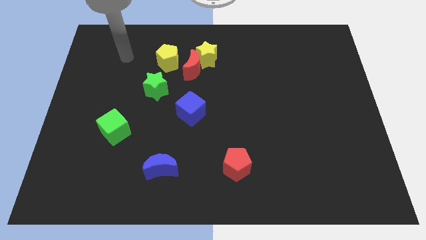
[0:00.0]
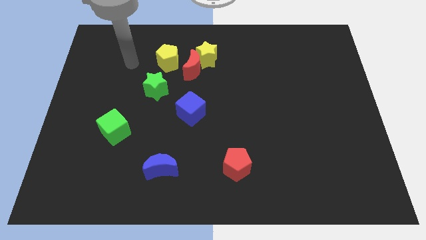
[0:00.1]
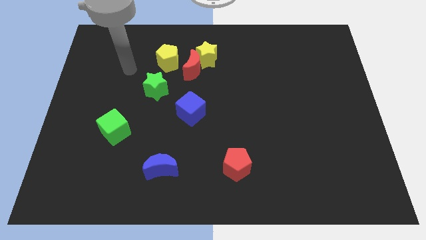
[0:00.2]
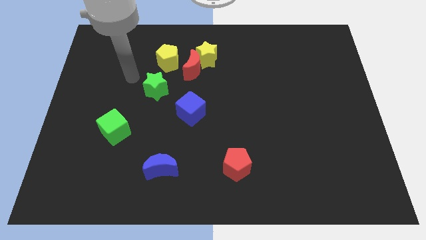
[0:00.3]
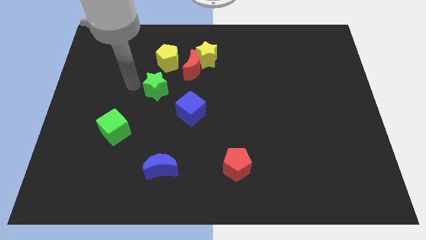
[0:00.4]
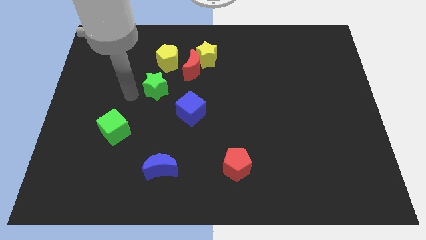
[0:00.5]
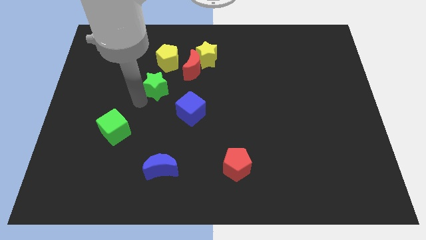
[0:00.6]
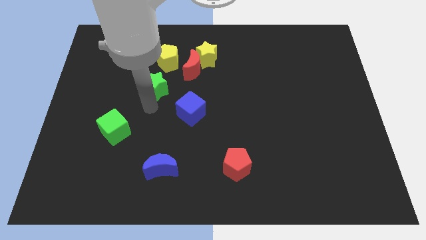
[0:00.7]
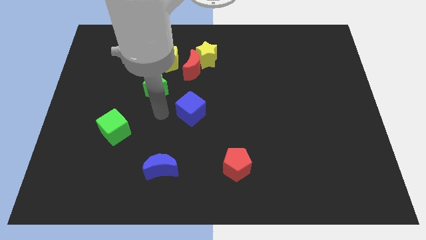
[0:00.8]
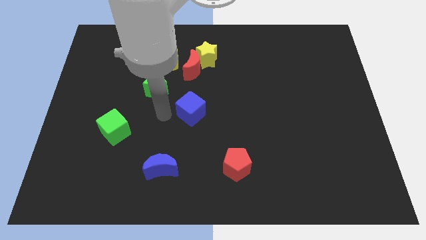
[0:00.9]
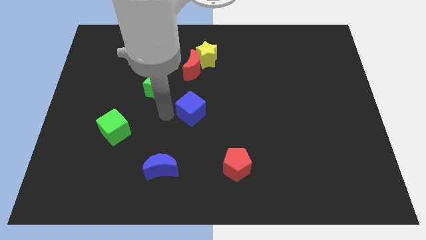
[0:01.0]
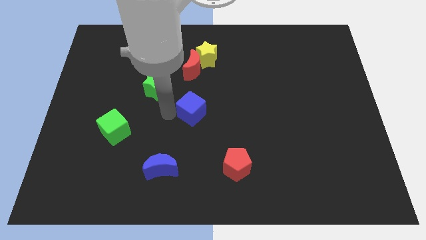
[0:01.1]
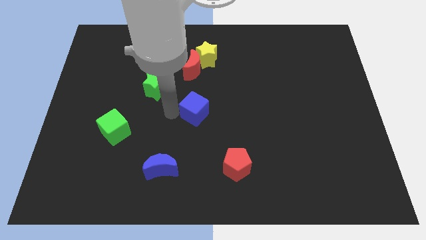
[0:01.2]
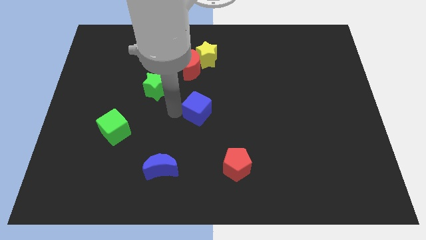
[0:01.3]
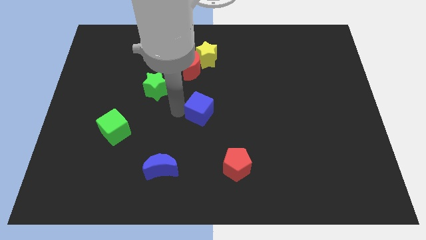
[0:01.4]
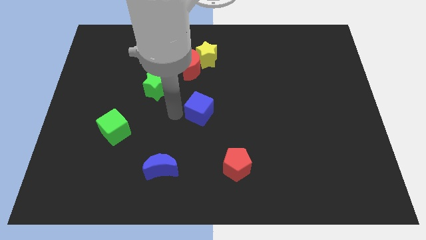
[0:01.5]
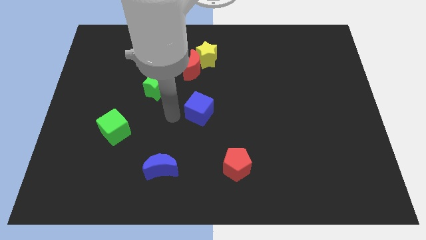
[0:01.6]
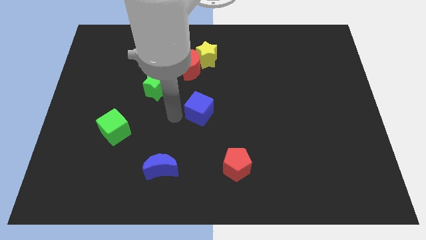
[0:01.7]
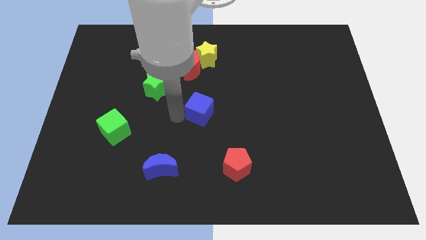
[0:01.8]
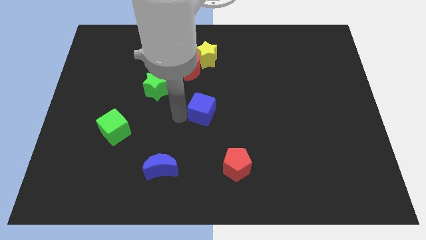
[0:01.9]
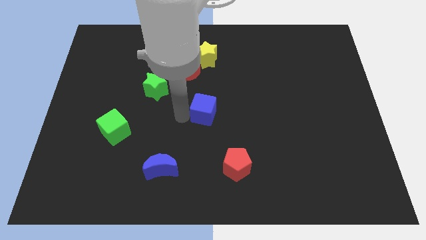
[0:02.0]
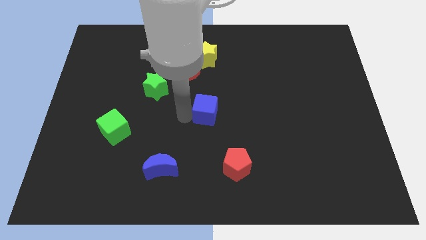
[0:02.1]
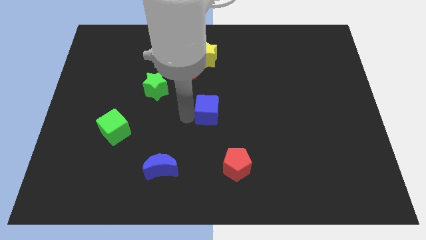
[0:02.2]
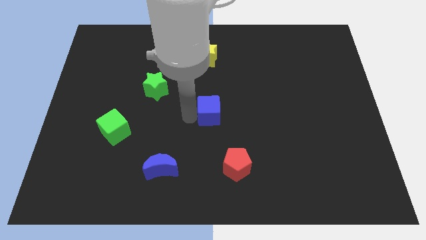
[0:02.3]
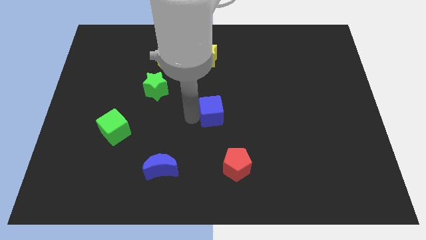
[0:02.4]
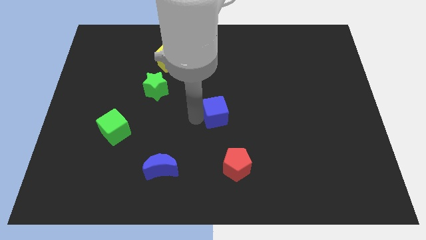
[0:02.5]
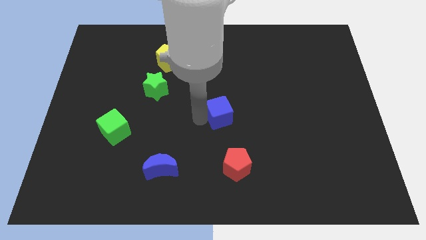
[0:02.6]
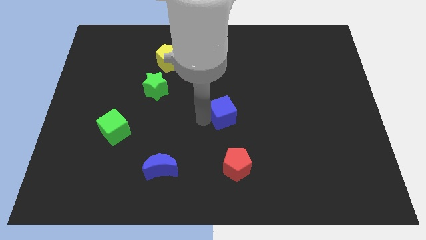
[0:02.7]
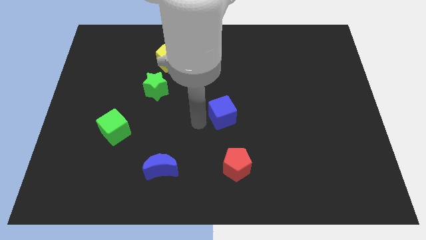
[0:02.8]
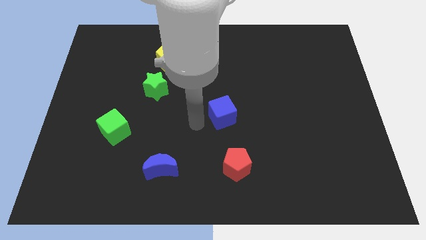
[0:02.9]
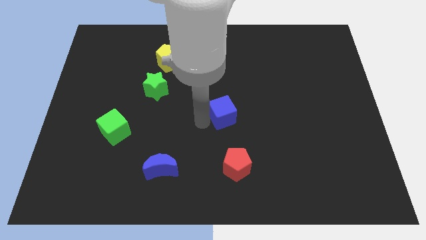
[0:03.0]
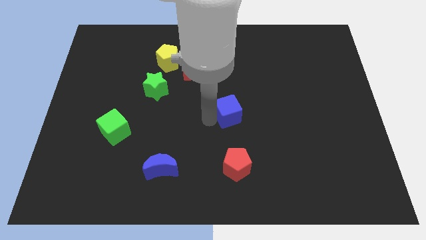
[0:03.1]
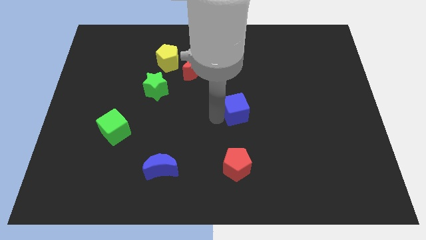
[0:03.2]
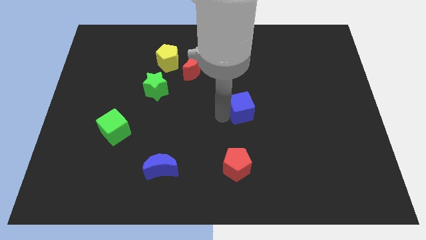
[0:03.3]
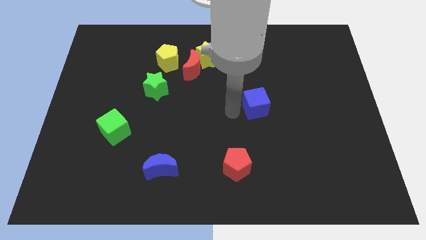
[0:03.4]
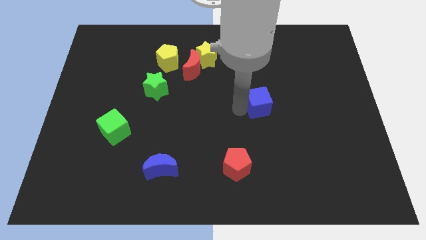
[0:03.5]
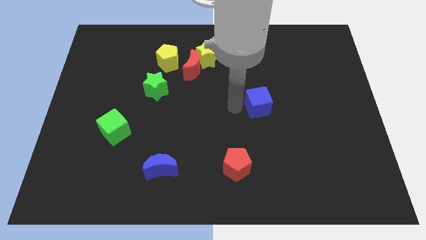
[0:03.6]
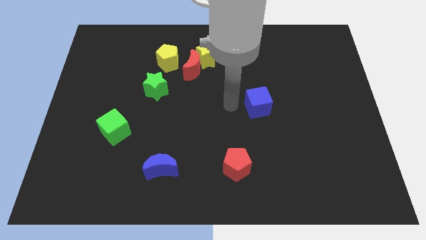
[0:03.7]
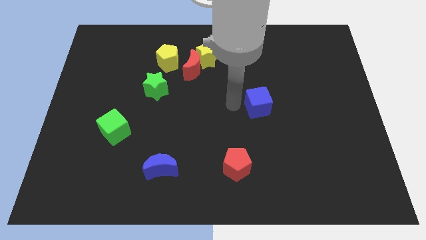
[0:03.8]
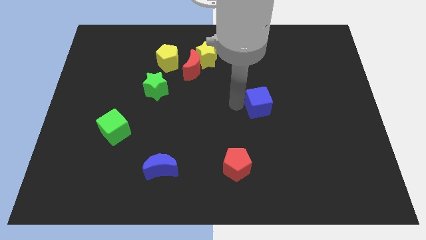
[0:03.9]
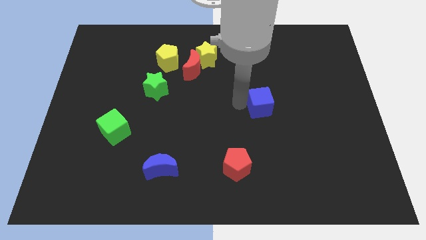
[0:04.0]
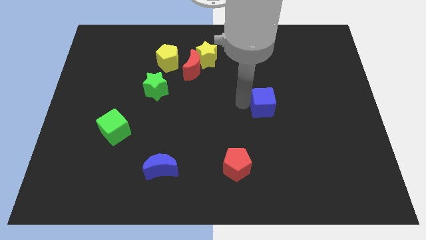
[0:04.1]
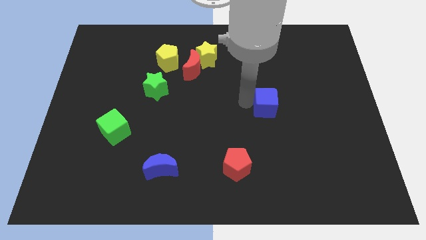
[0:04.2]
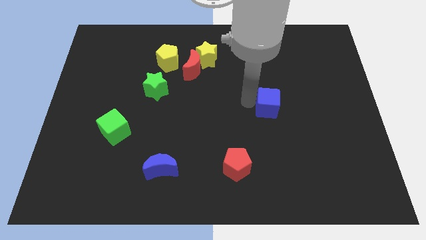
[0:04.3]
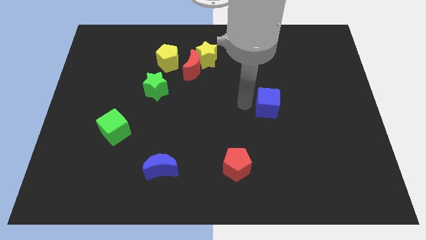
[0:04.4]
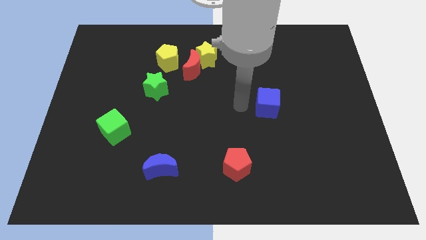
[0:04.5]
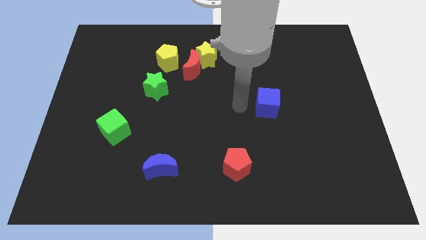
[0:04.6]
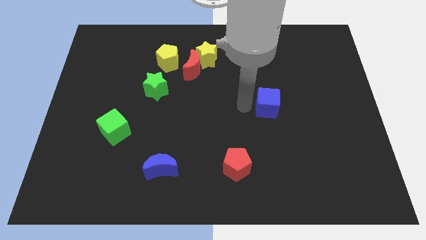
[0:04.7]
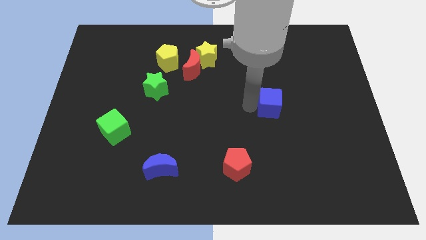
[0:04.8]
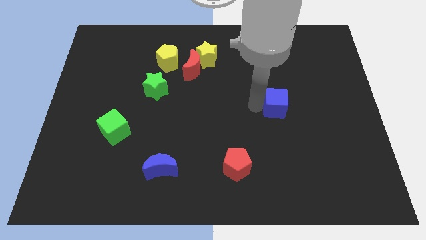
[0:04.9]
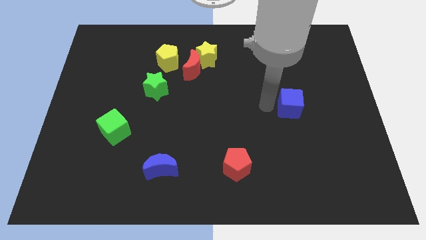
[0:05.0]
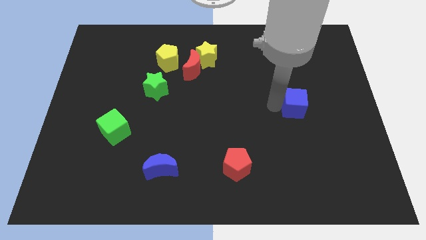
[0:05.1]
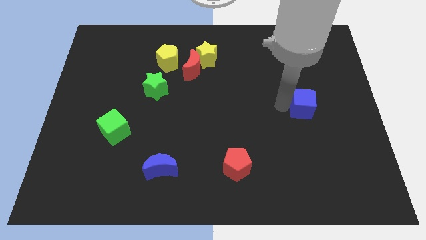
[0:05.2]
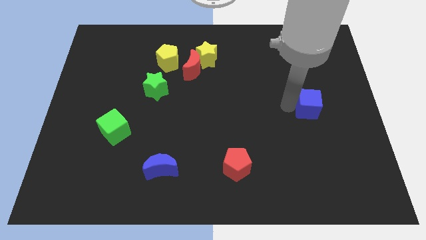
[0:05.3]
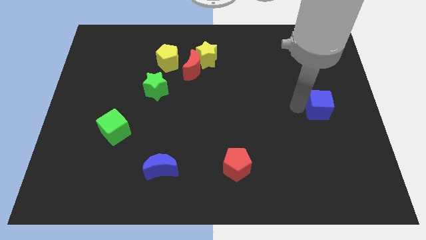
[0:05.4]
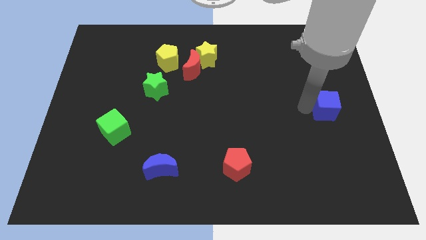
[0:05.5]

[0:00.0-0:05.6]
push the blue cube to the right side
